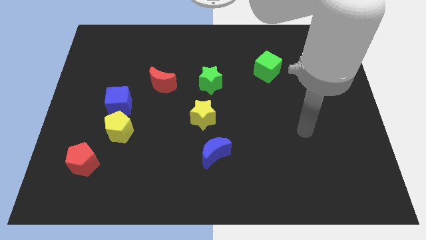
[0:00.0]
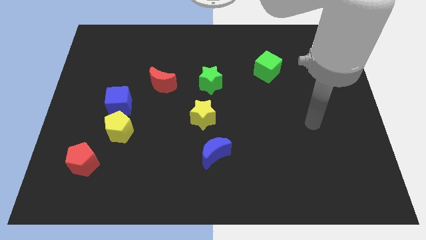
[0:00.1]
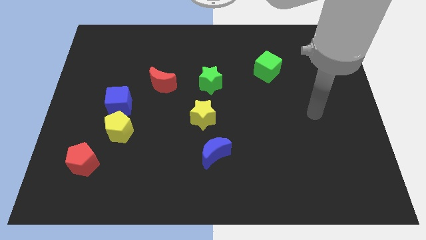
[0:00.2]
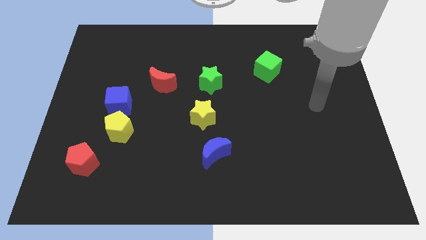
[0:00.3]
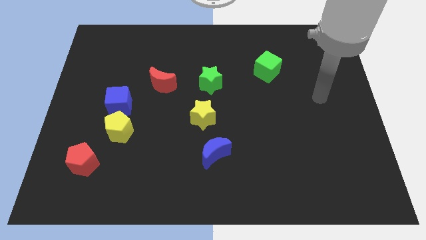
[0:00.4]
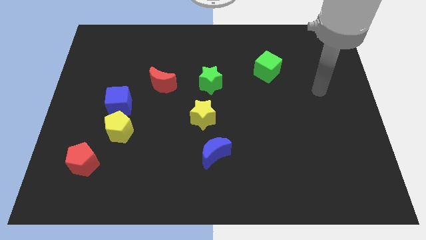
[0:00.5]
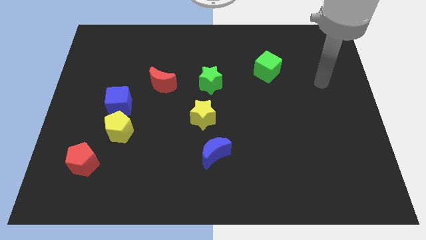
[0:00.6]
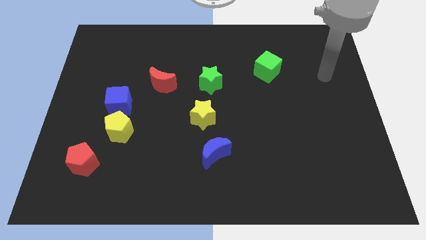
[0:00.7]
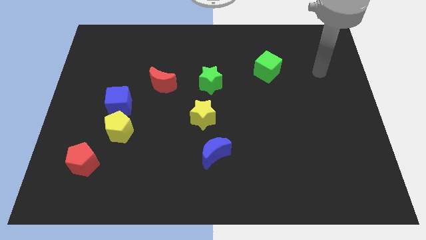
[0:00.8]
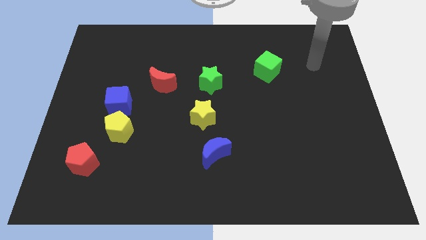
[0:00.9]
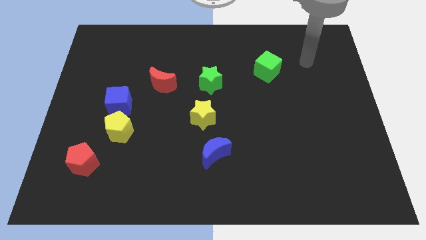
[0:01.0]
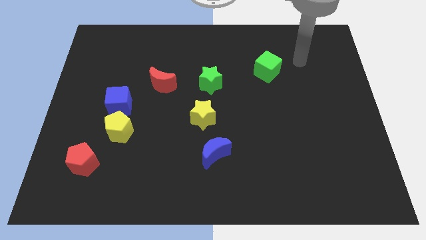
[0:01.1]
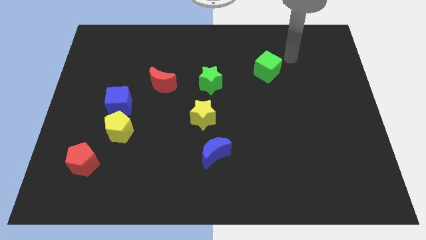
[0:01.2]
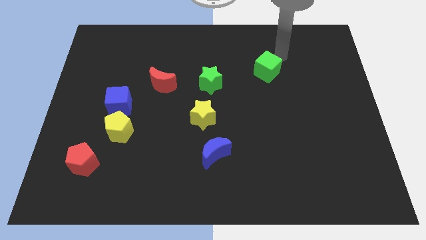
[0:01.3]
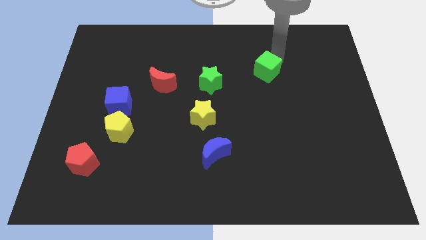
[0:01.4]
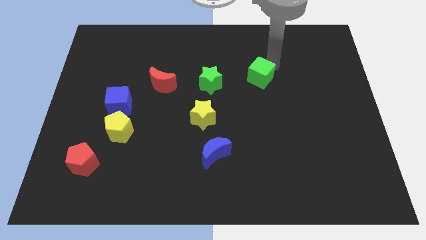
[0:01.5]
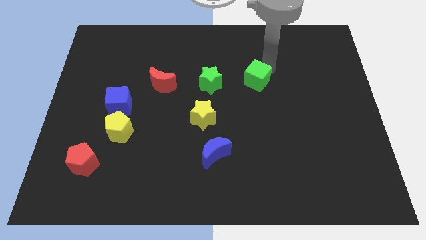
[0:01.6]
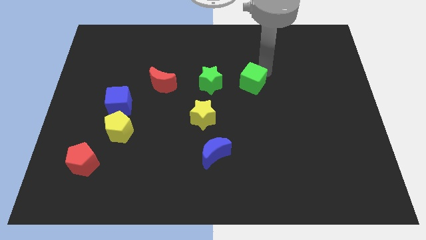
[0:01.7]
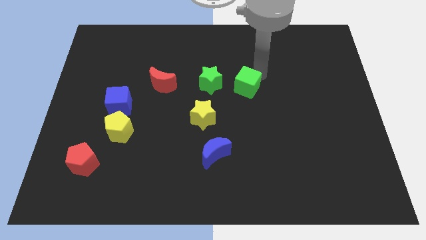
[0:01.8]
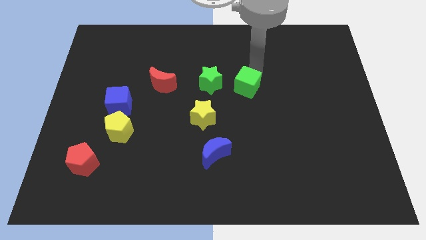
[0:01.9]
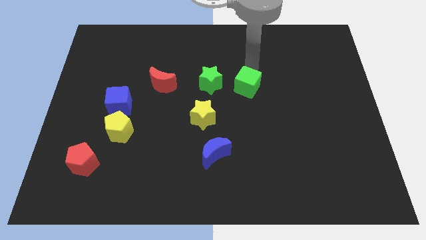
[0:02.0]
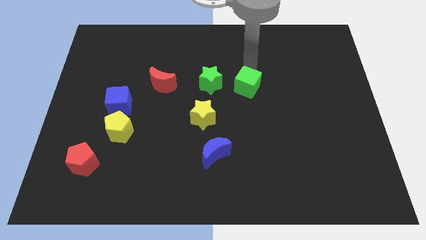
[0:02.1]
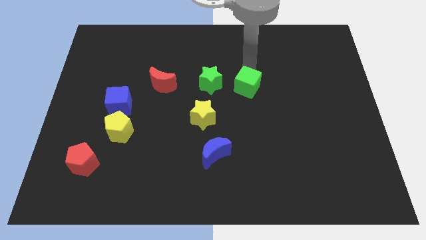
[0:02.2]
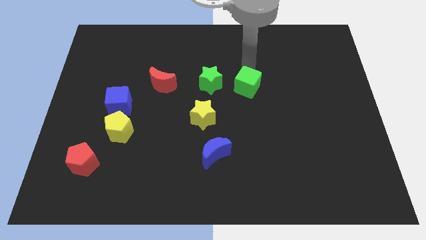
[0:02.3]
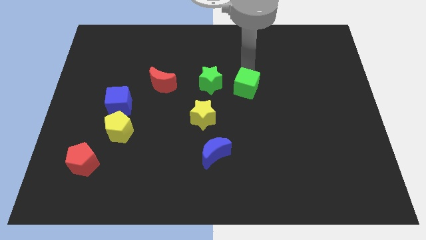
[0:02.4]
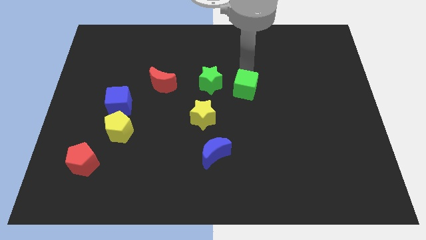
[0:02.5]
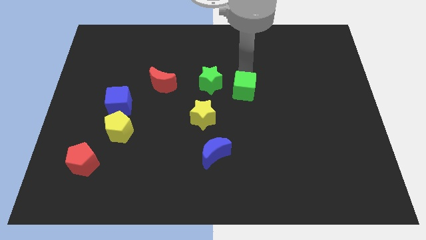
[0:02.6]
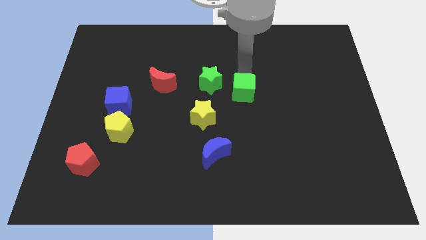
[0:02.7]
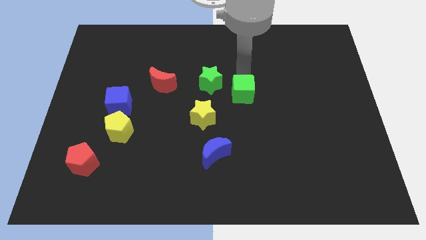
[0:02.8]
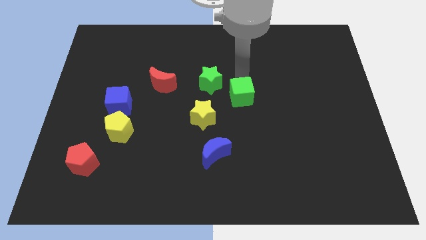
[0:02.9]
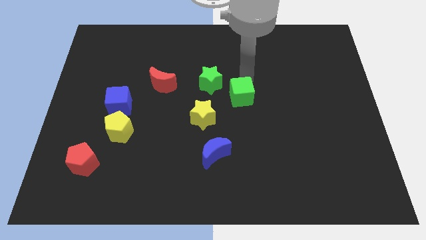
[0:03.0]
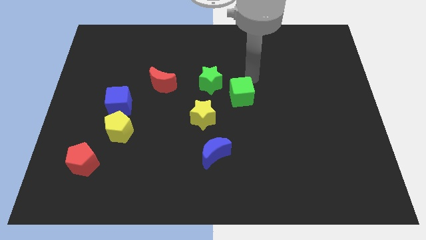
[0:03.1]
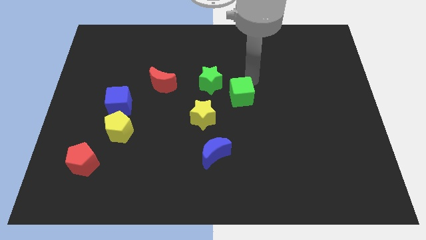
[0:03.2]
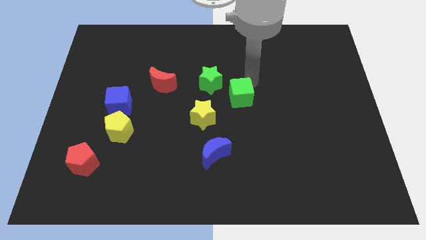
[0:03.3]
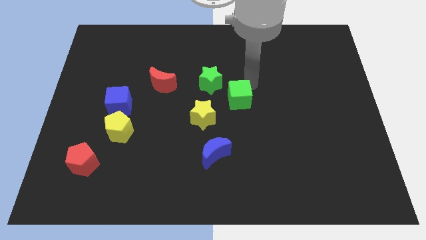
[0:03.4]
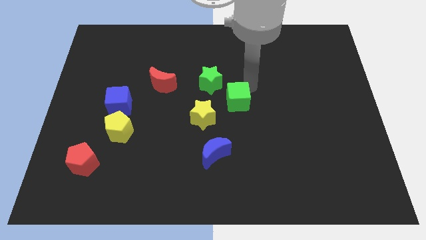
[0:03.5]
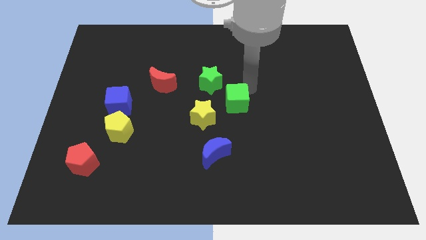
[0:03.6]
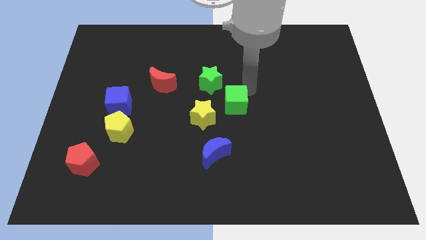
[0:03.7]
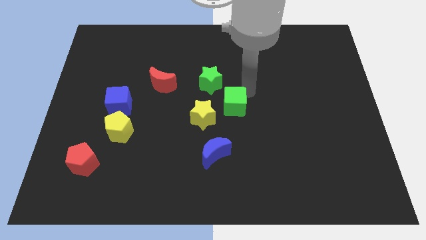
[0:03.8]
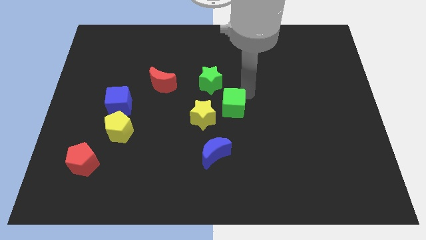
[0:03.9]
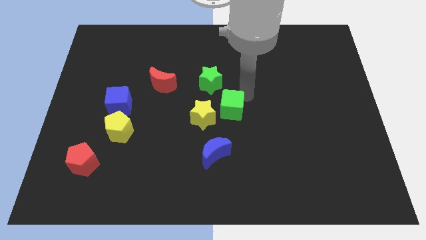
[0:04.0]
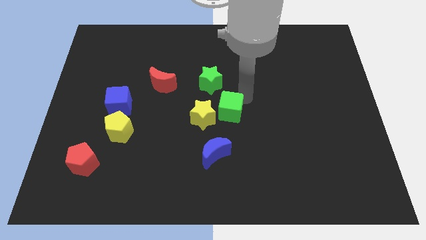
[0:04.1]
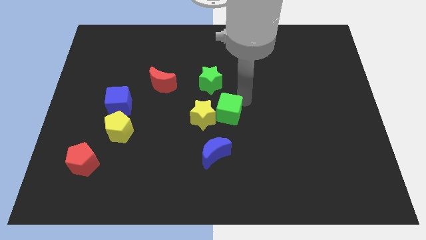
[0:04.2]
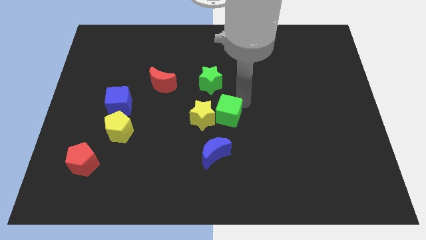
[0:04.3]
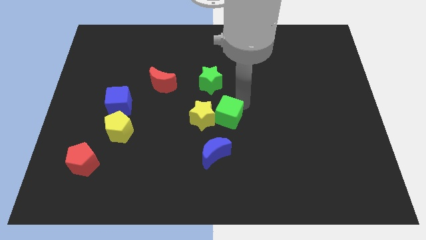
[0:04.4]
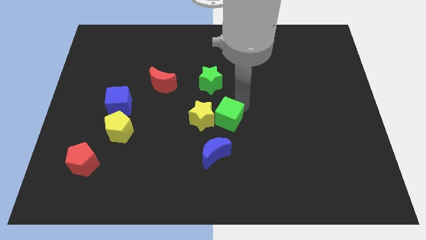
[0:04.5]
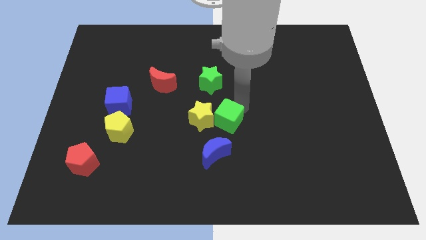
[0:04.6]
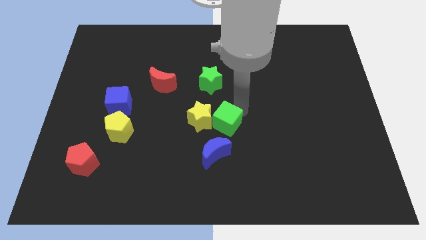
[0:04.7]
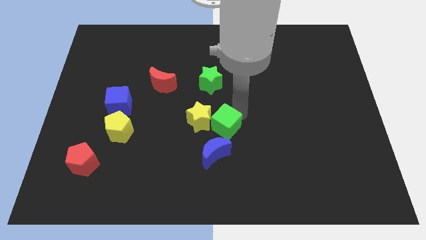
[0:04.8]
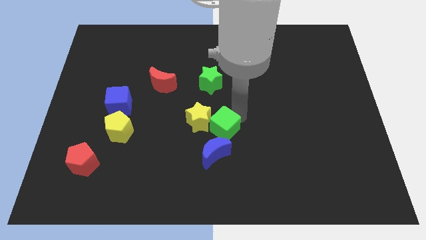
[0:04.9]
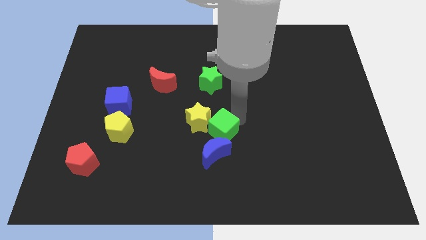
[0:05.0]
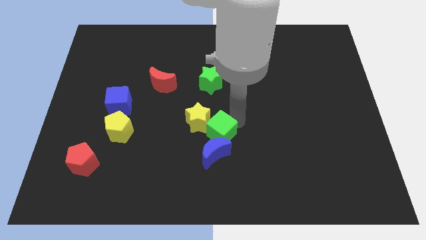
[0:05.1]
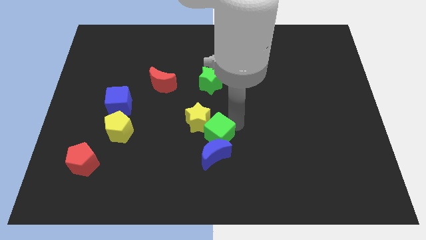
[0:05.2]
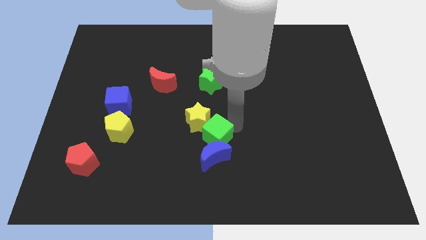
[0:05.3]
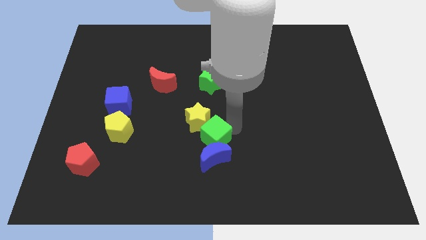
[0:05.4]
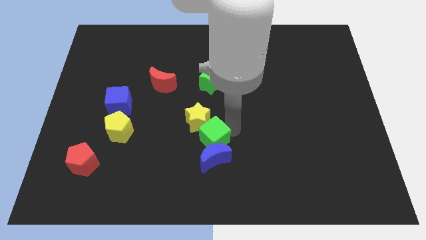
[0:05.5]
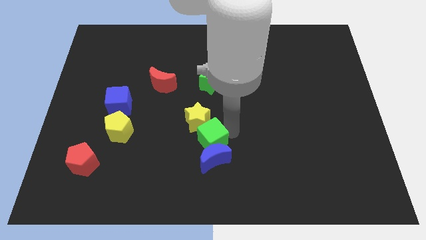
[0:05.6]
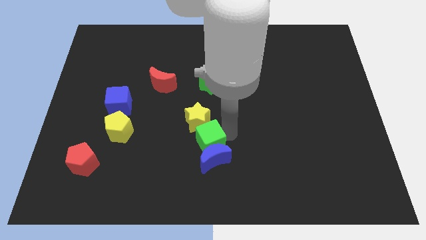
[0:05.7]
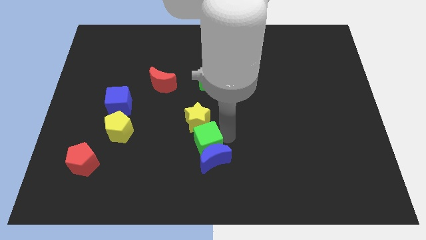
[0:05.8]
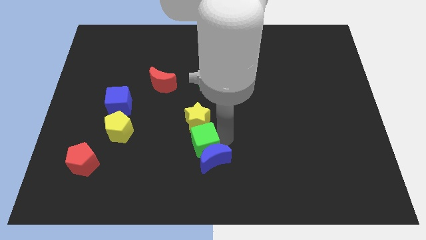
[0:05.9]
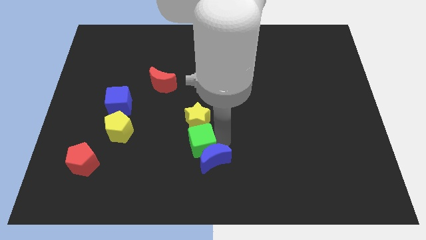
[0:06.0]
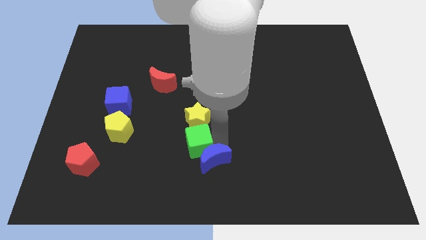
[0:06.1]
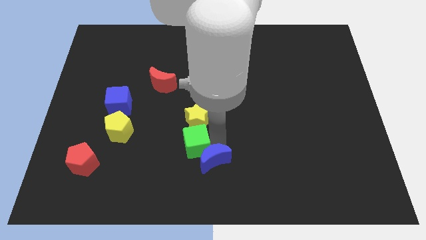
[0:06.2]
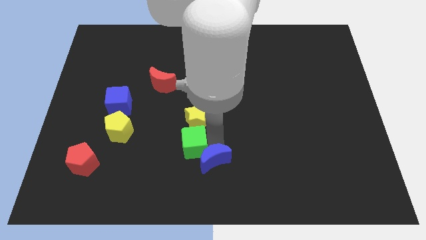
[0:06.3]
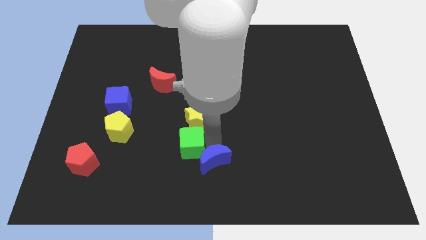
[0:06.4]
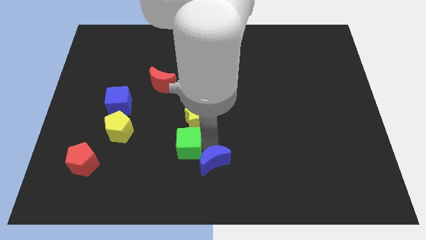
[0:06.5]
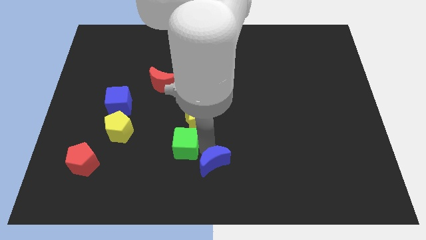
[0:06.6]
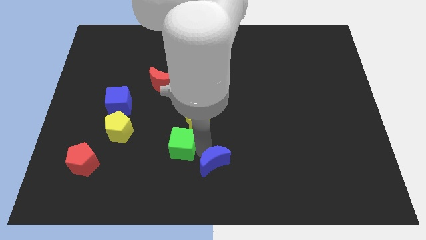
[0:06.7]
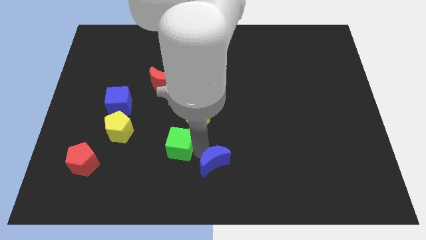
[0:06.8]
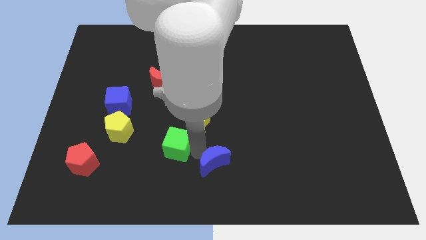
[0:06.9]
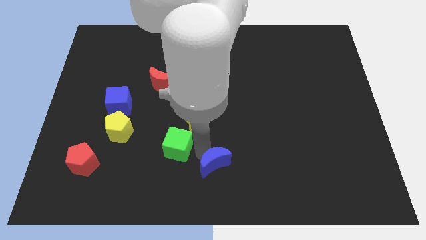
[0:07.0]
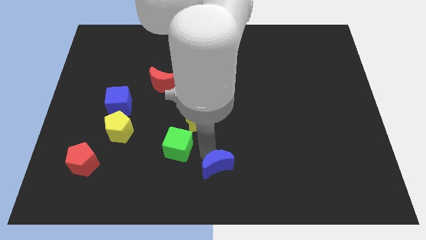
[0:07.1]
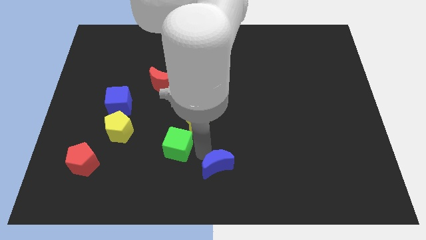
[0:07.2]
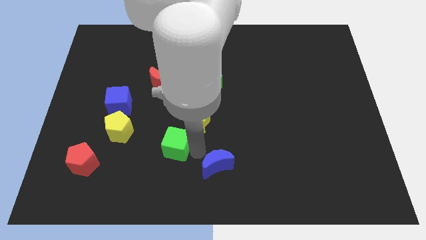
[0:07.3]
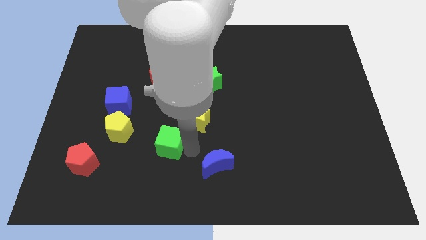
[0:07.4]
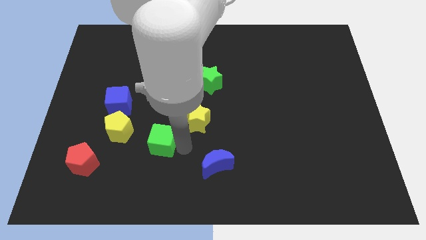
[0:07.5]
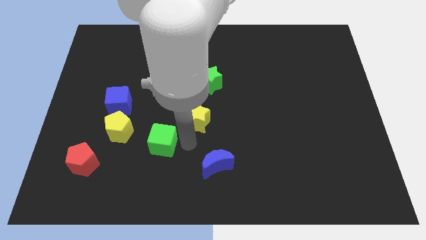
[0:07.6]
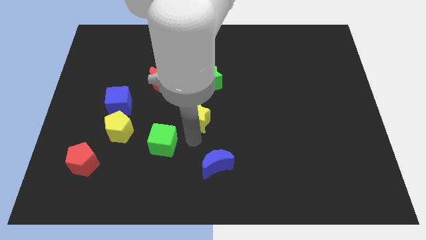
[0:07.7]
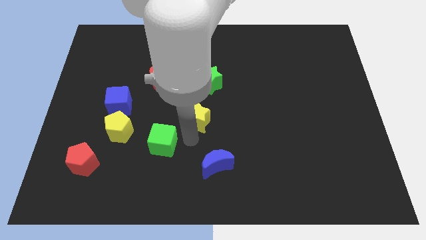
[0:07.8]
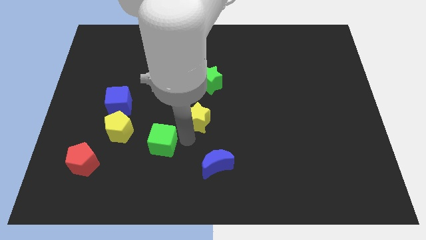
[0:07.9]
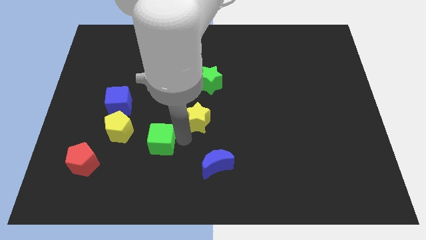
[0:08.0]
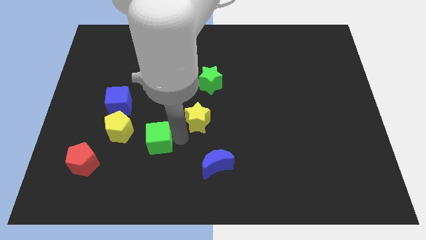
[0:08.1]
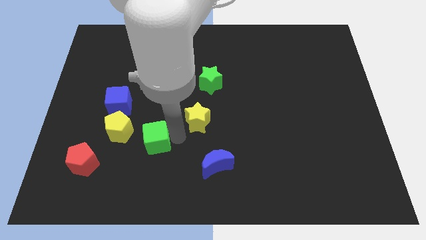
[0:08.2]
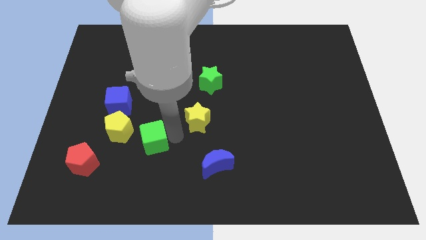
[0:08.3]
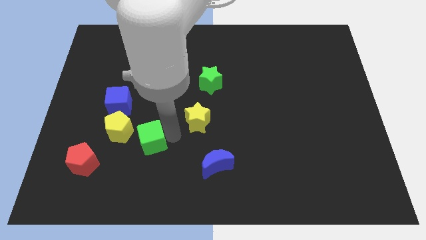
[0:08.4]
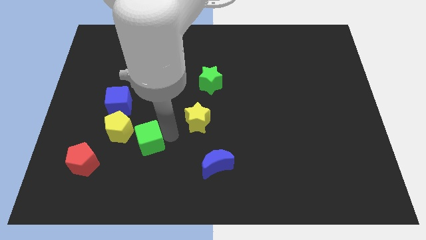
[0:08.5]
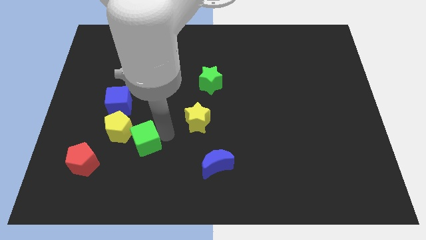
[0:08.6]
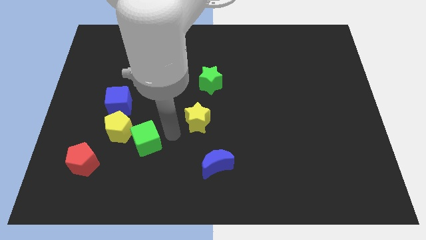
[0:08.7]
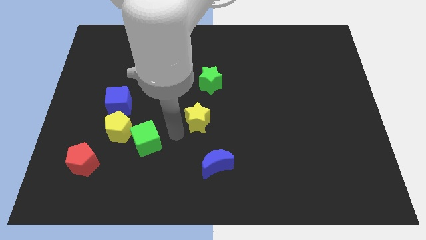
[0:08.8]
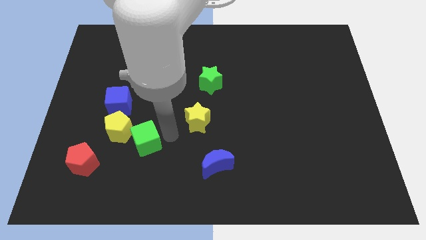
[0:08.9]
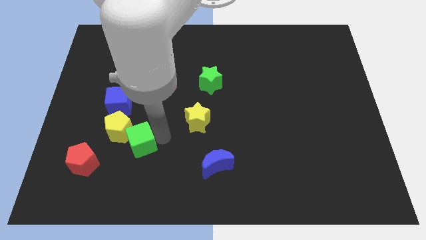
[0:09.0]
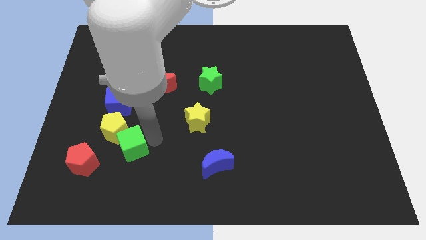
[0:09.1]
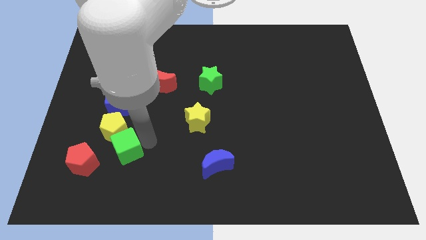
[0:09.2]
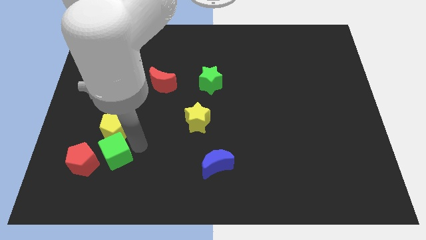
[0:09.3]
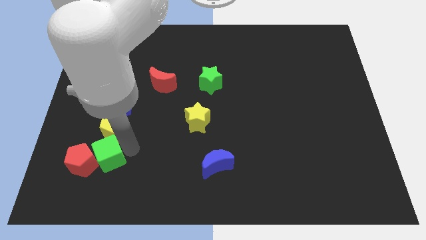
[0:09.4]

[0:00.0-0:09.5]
put the green cube to the red pentagon
